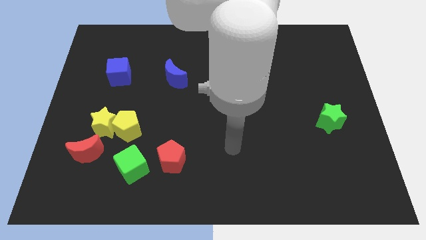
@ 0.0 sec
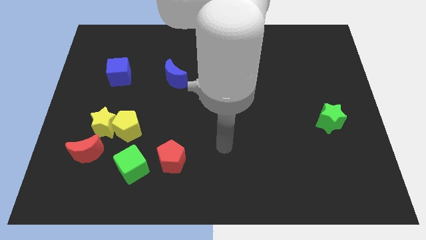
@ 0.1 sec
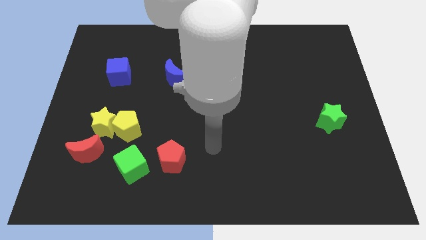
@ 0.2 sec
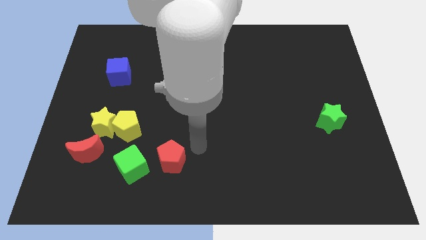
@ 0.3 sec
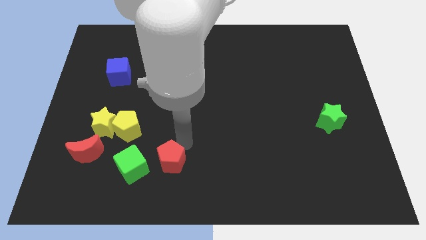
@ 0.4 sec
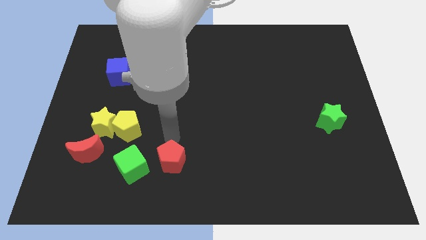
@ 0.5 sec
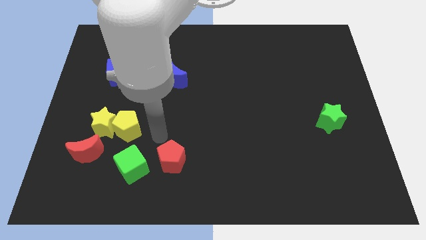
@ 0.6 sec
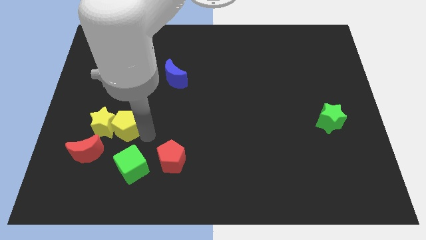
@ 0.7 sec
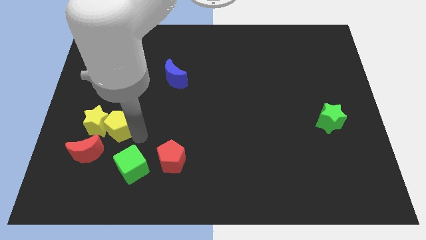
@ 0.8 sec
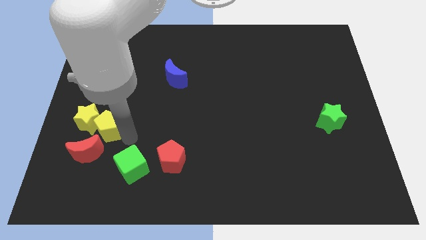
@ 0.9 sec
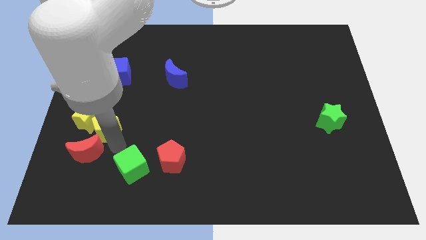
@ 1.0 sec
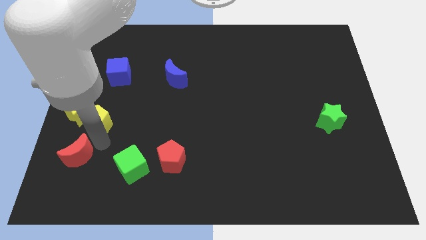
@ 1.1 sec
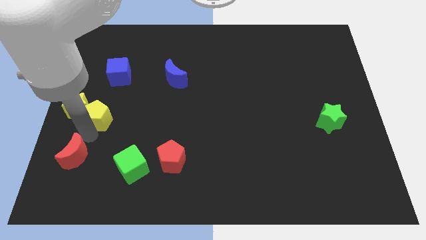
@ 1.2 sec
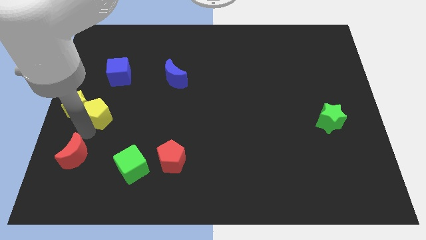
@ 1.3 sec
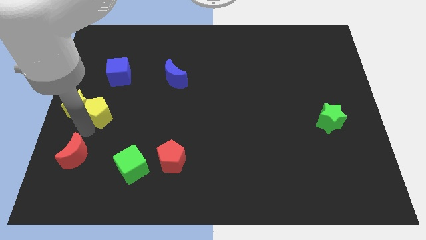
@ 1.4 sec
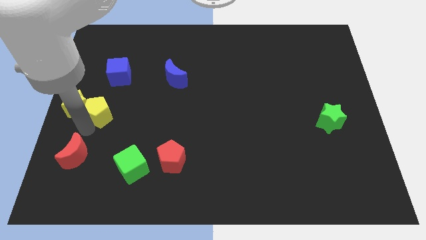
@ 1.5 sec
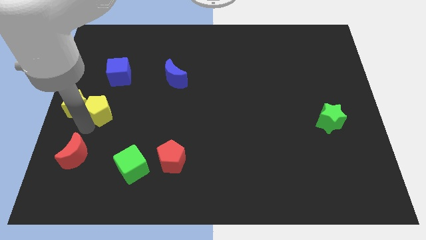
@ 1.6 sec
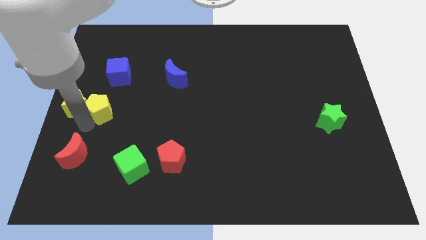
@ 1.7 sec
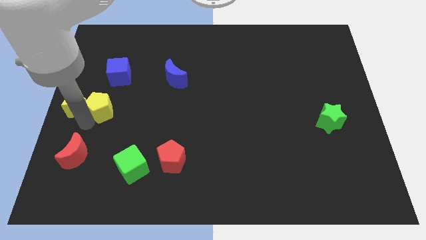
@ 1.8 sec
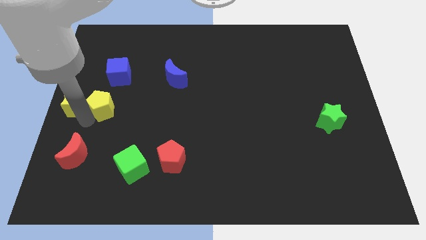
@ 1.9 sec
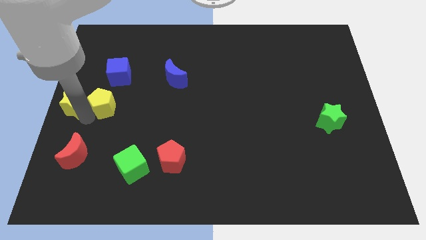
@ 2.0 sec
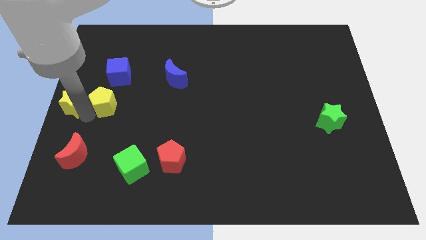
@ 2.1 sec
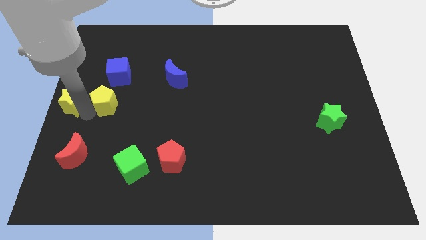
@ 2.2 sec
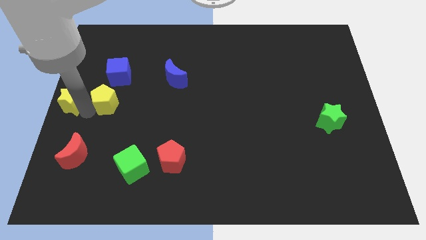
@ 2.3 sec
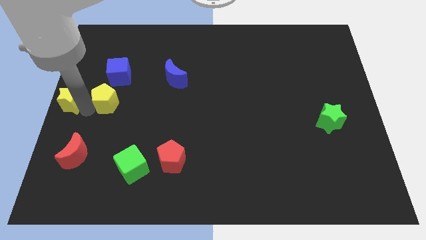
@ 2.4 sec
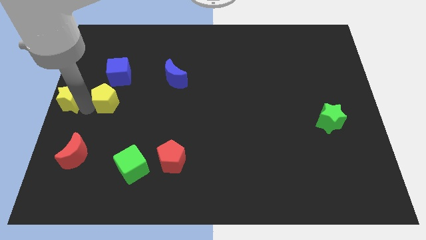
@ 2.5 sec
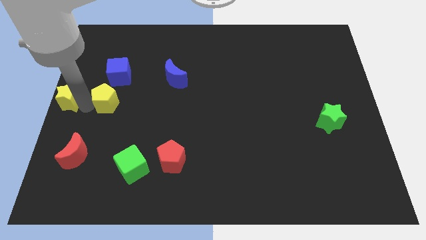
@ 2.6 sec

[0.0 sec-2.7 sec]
move the yellow star away from the yellow pentagon and red moon

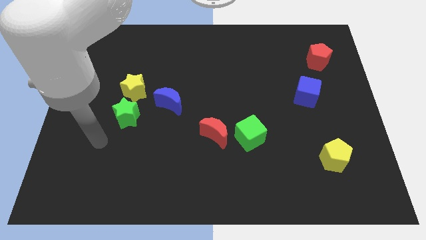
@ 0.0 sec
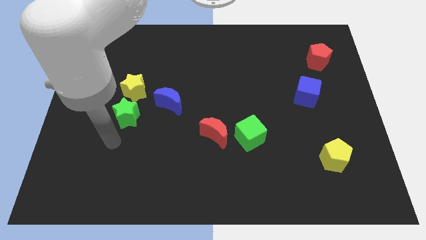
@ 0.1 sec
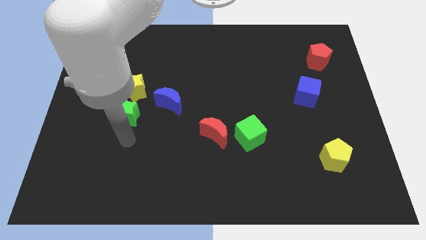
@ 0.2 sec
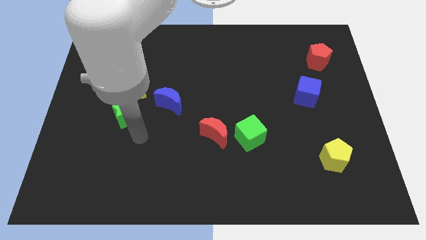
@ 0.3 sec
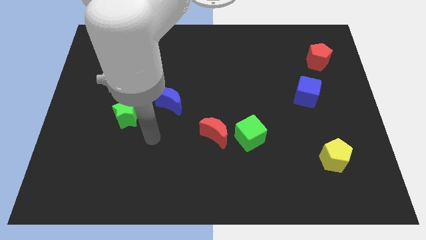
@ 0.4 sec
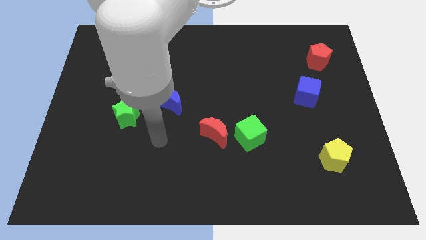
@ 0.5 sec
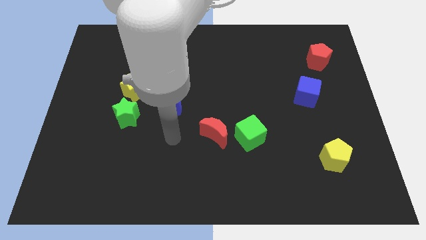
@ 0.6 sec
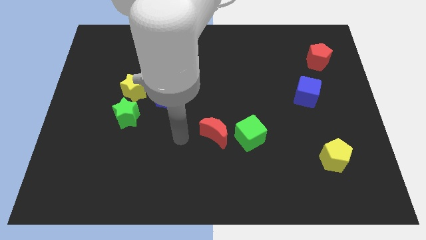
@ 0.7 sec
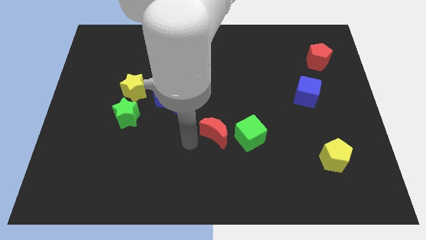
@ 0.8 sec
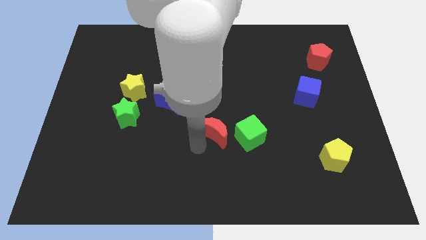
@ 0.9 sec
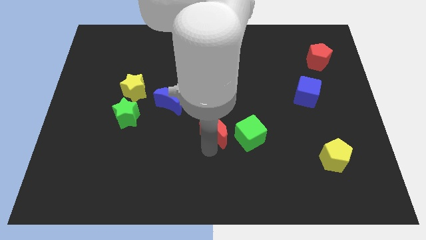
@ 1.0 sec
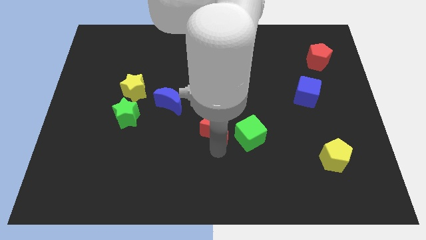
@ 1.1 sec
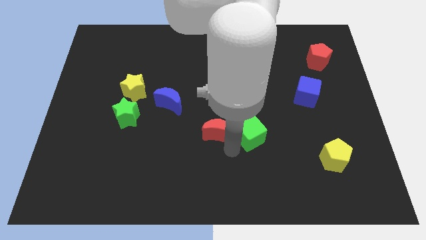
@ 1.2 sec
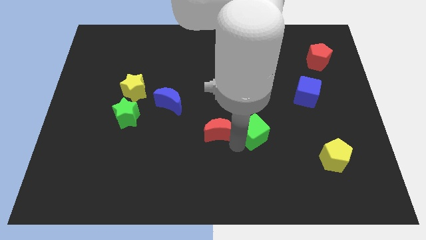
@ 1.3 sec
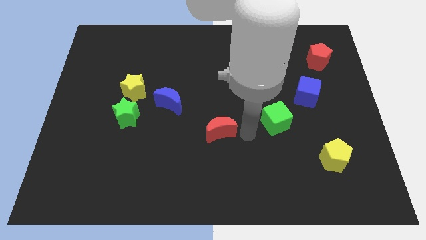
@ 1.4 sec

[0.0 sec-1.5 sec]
pull the red moon apart from the green cube

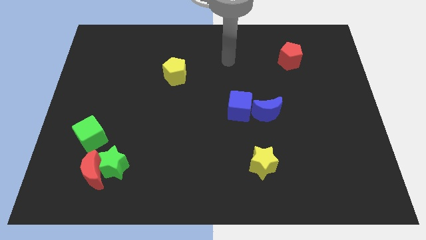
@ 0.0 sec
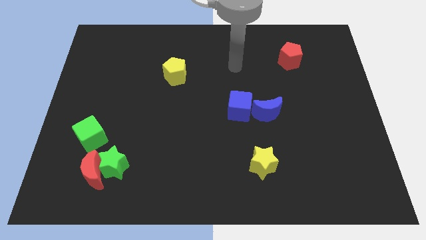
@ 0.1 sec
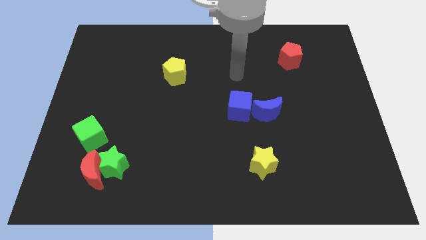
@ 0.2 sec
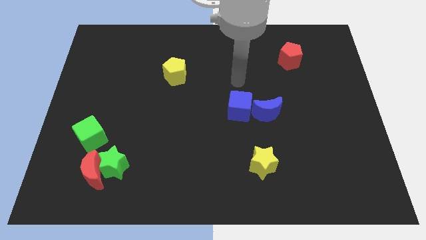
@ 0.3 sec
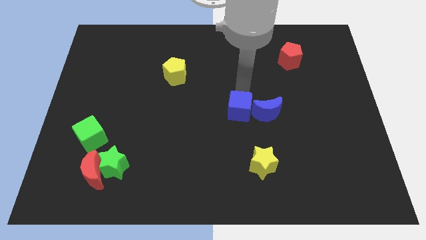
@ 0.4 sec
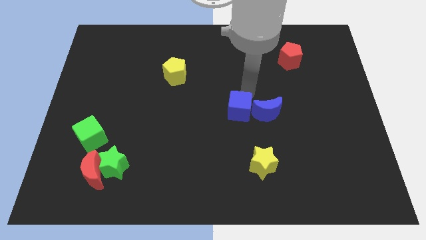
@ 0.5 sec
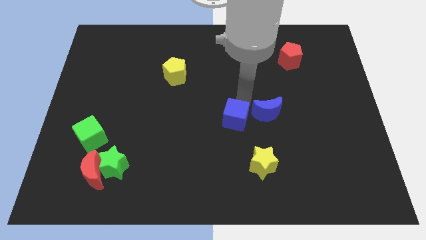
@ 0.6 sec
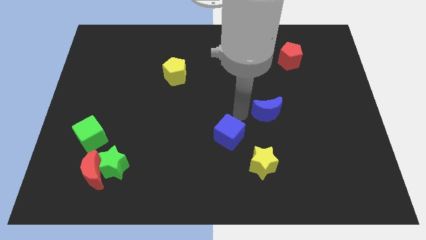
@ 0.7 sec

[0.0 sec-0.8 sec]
separate the blue moon from the blue cube

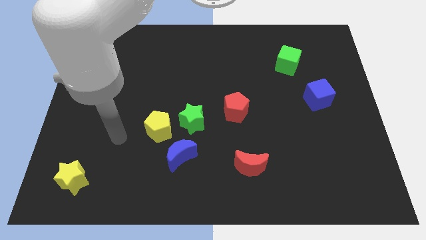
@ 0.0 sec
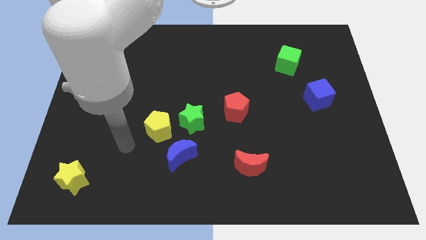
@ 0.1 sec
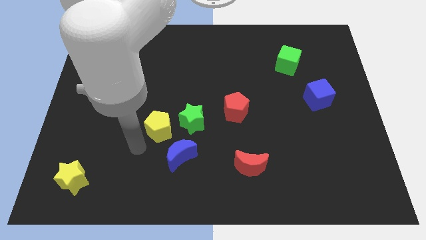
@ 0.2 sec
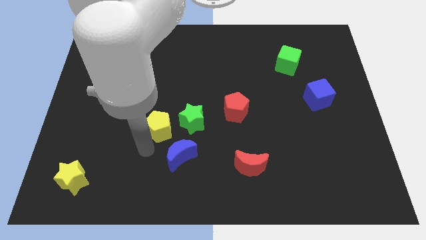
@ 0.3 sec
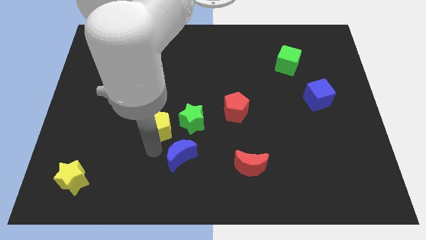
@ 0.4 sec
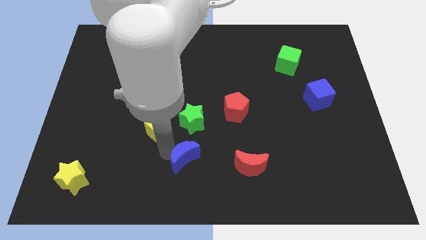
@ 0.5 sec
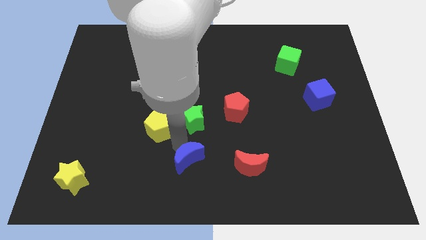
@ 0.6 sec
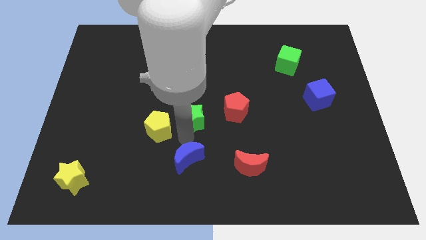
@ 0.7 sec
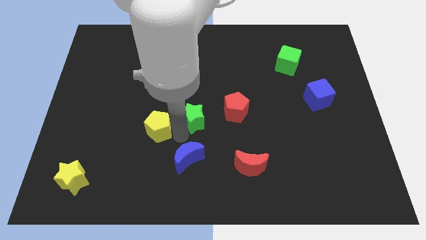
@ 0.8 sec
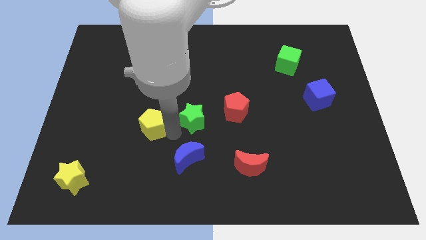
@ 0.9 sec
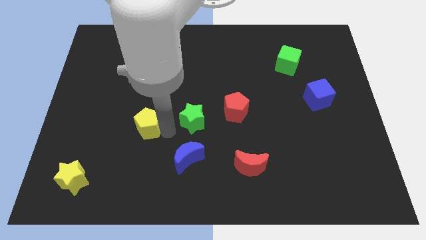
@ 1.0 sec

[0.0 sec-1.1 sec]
pull the yellow pentagon apart from the green star and blue moon

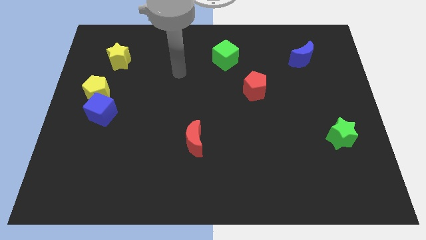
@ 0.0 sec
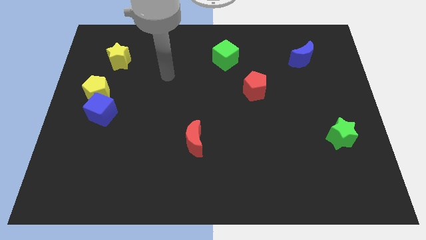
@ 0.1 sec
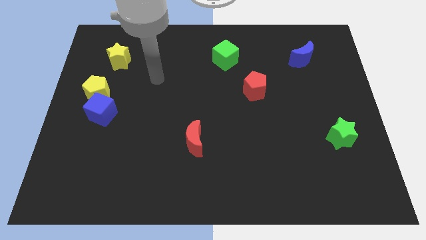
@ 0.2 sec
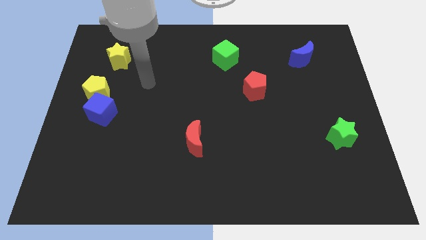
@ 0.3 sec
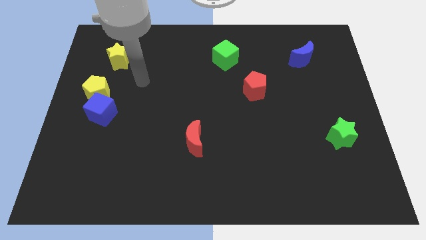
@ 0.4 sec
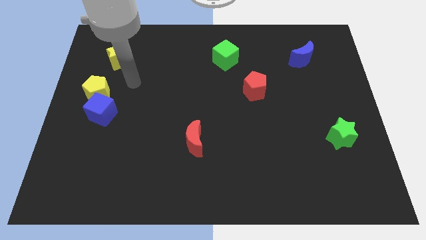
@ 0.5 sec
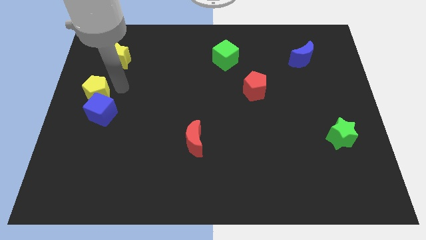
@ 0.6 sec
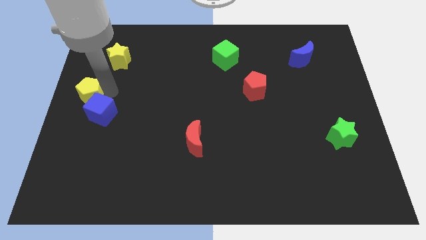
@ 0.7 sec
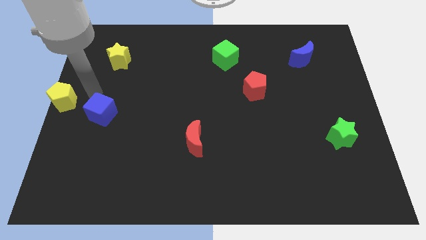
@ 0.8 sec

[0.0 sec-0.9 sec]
move the blue cube away from the yellow pentagon

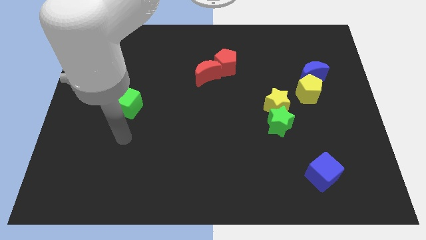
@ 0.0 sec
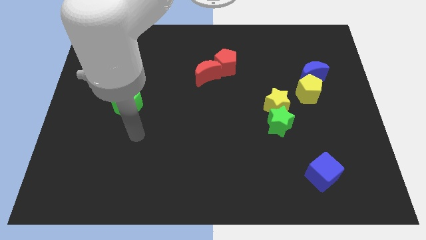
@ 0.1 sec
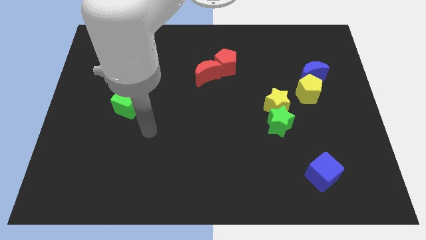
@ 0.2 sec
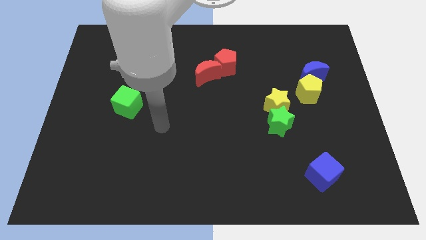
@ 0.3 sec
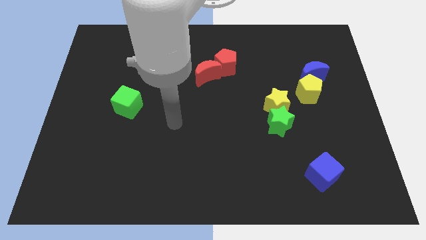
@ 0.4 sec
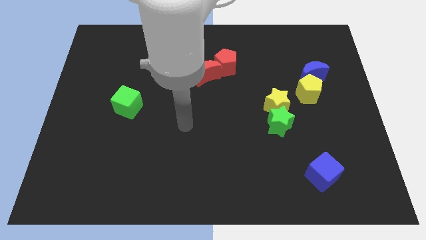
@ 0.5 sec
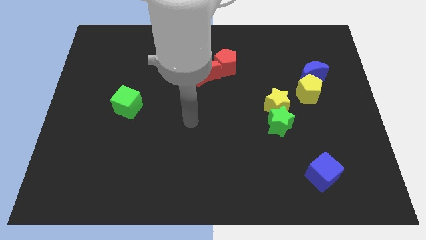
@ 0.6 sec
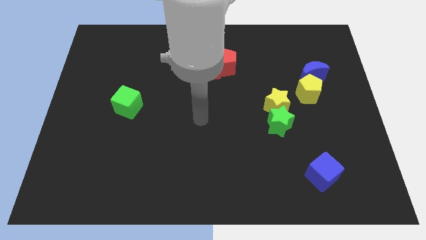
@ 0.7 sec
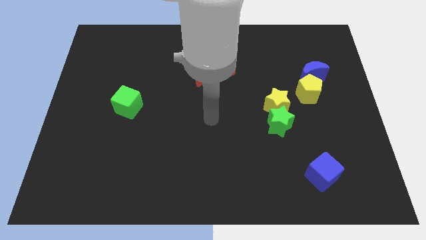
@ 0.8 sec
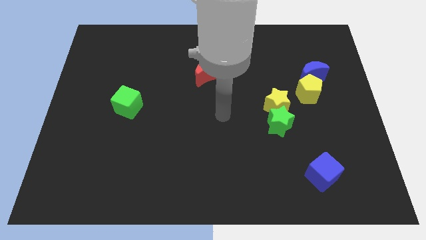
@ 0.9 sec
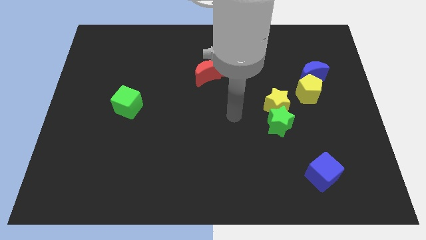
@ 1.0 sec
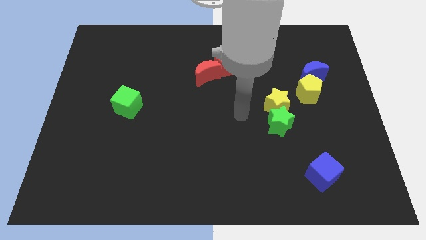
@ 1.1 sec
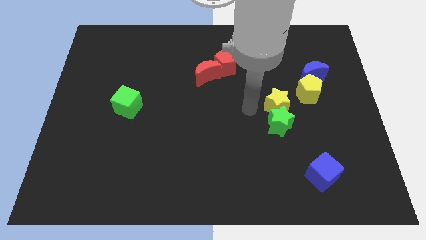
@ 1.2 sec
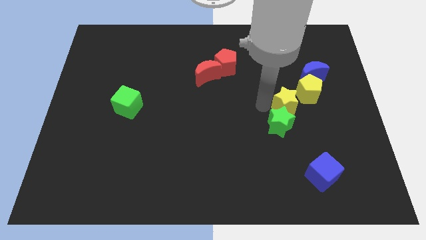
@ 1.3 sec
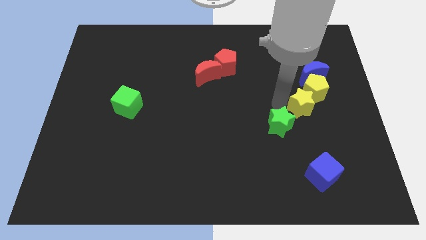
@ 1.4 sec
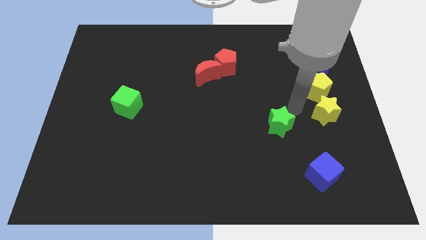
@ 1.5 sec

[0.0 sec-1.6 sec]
pull the green star apart from the yellow star

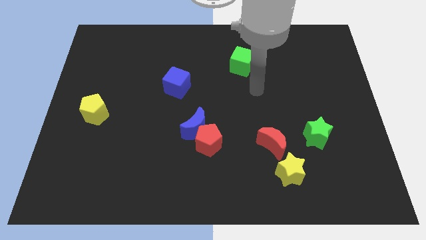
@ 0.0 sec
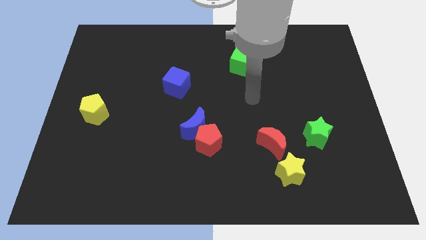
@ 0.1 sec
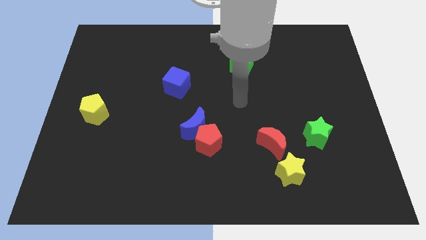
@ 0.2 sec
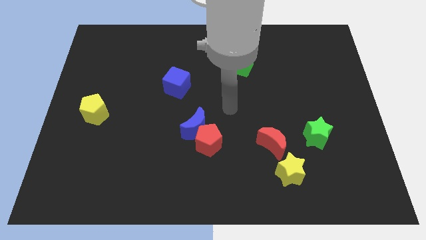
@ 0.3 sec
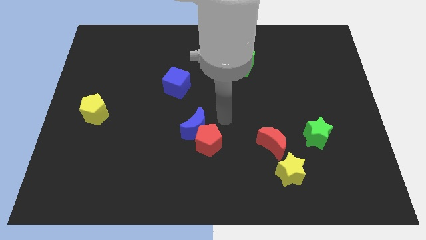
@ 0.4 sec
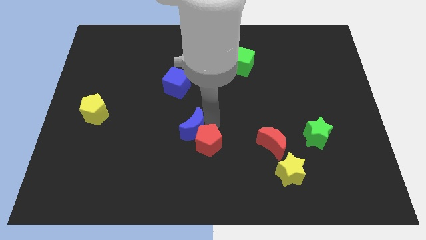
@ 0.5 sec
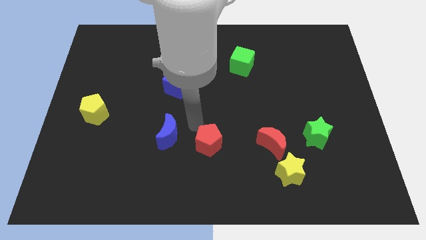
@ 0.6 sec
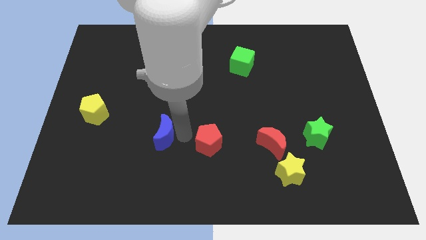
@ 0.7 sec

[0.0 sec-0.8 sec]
move the red pentagon away from the blue moon
